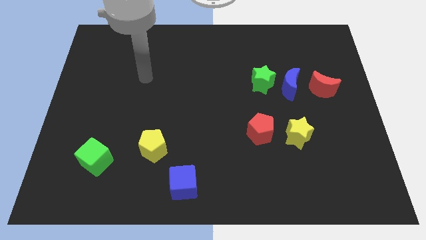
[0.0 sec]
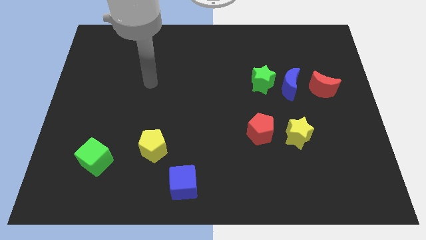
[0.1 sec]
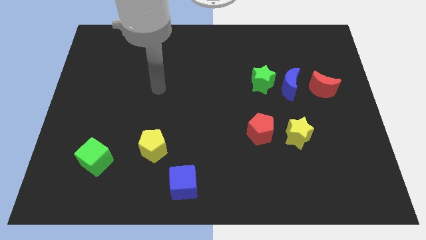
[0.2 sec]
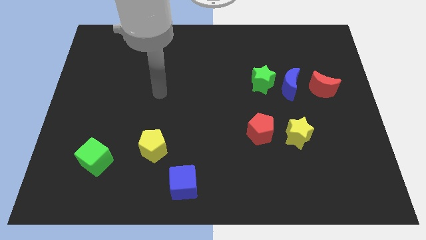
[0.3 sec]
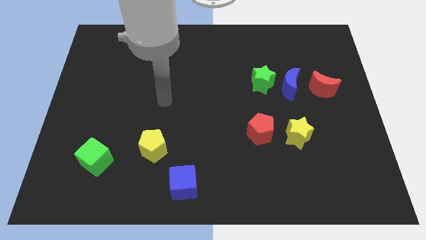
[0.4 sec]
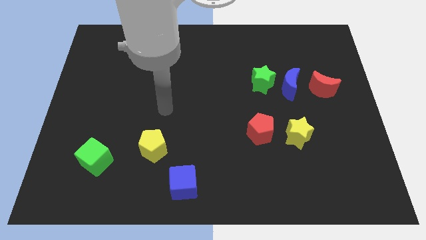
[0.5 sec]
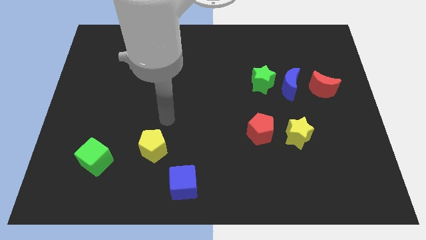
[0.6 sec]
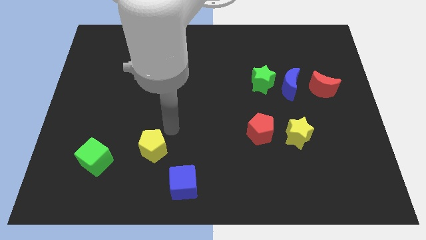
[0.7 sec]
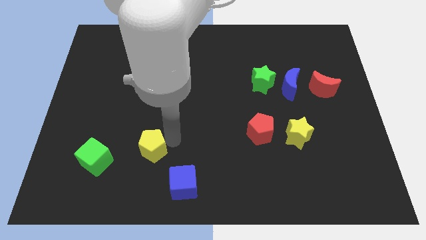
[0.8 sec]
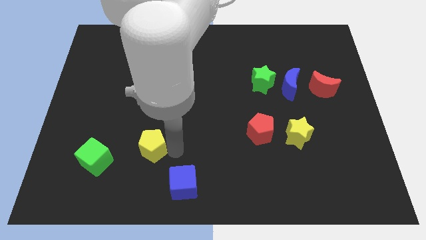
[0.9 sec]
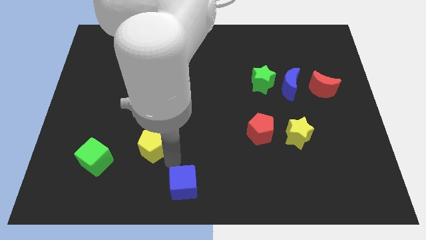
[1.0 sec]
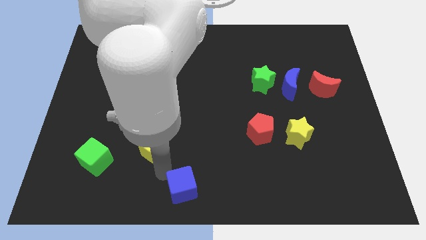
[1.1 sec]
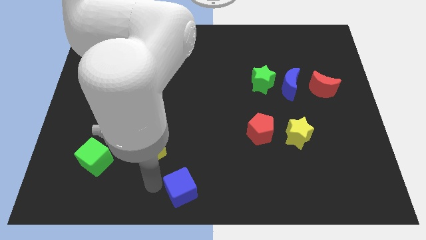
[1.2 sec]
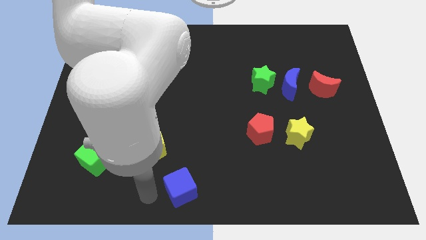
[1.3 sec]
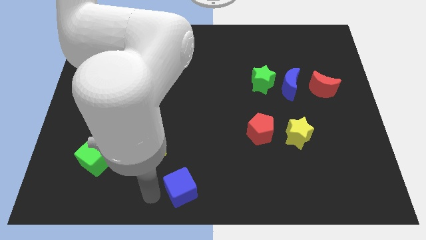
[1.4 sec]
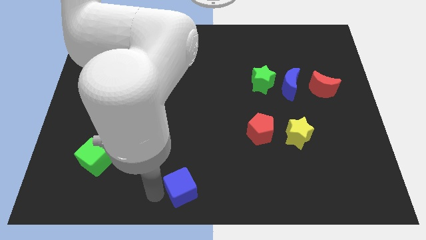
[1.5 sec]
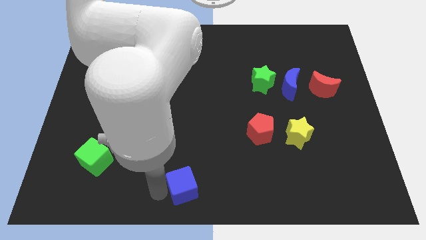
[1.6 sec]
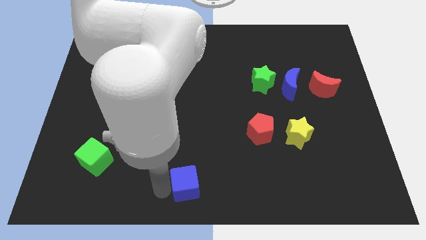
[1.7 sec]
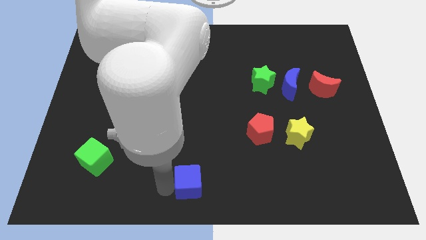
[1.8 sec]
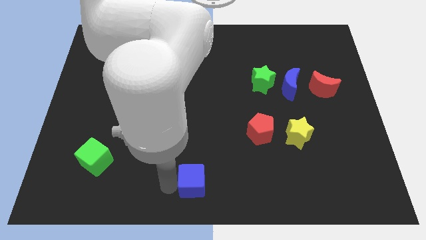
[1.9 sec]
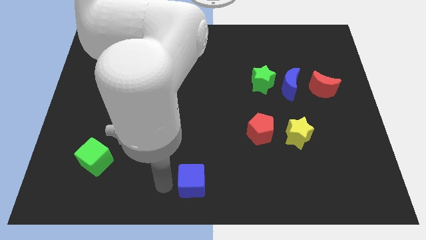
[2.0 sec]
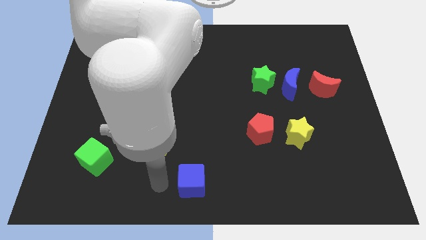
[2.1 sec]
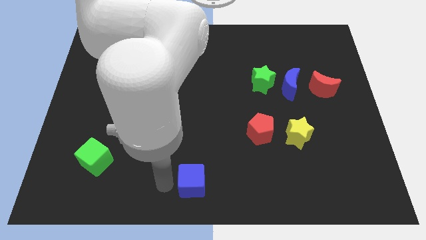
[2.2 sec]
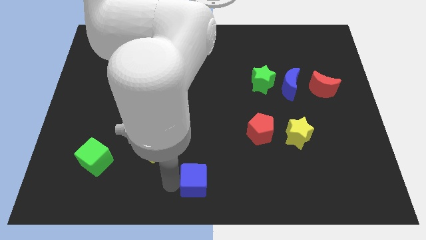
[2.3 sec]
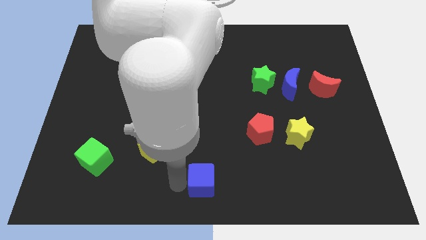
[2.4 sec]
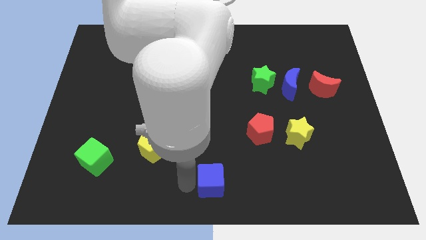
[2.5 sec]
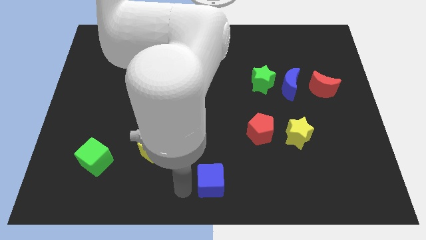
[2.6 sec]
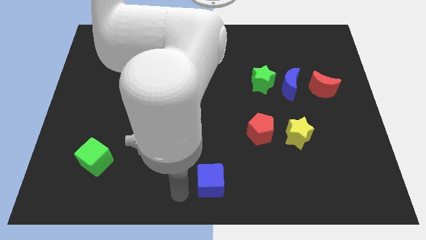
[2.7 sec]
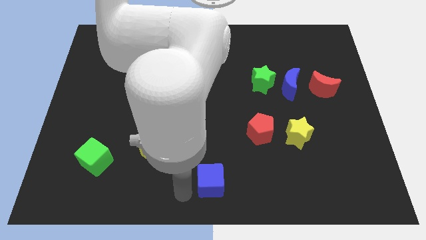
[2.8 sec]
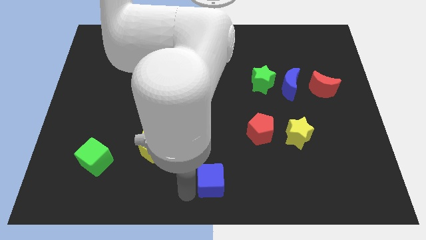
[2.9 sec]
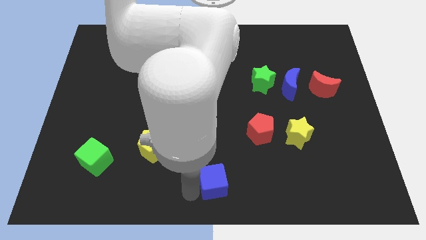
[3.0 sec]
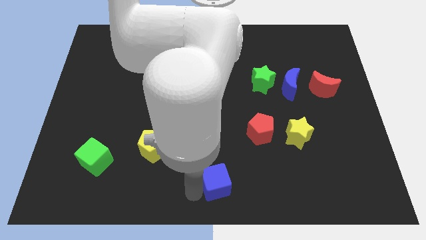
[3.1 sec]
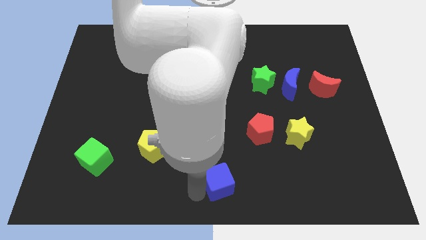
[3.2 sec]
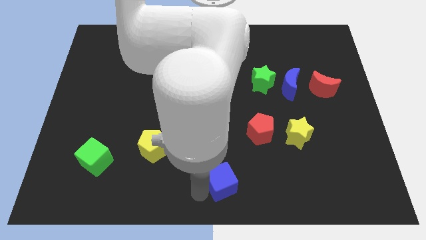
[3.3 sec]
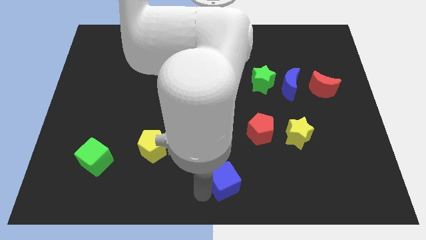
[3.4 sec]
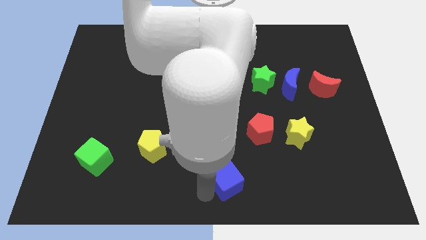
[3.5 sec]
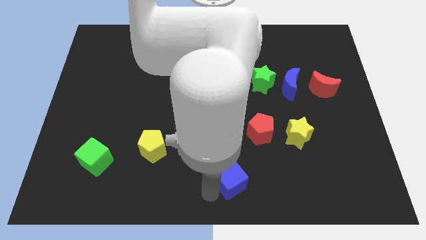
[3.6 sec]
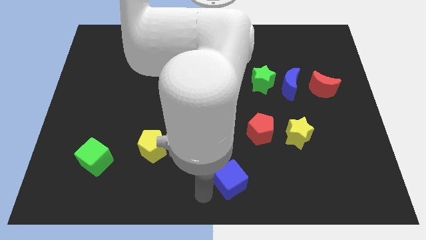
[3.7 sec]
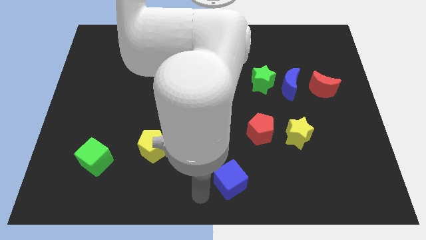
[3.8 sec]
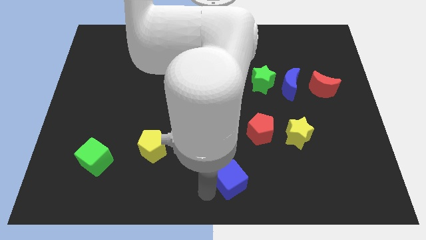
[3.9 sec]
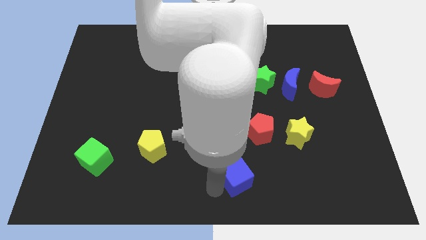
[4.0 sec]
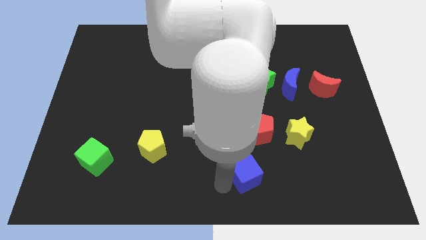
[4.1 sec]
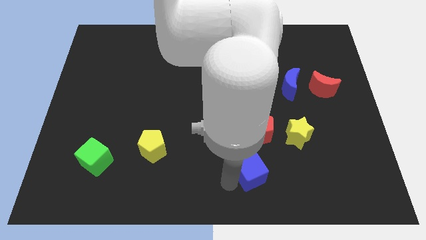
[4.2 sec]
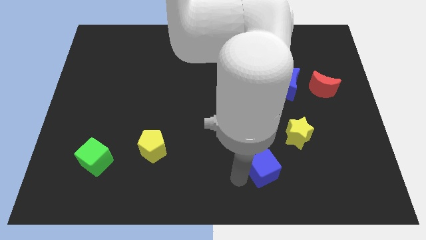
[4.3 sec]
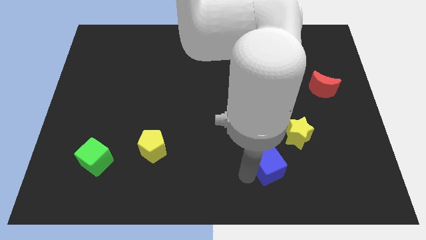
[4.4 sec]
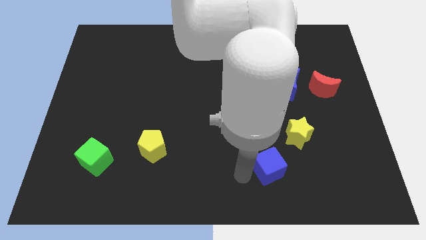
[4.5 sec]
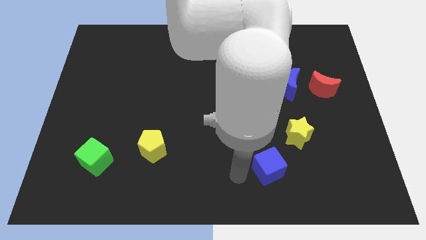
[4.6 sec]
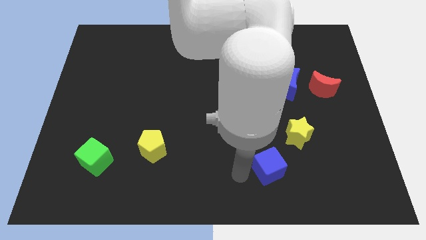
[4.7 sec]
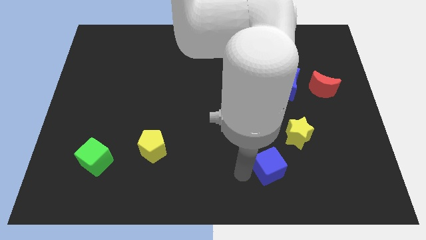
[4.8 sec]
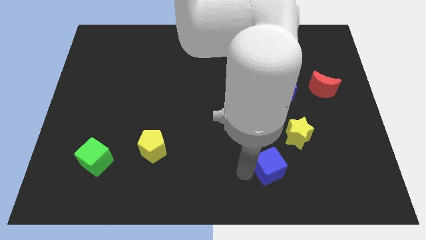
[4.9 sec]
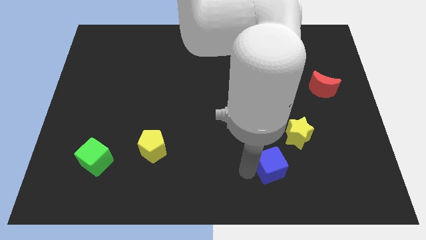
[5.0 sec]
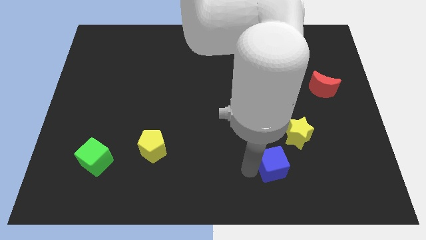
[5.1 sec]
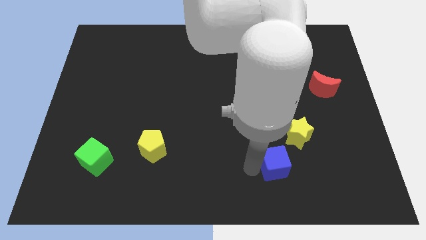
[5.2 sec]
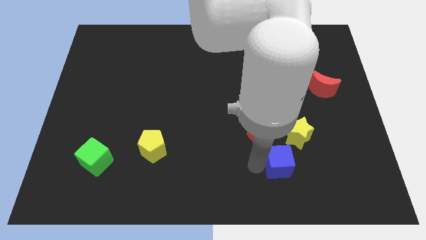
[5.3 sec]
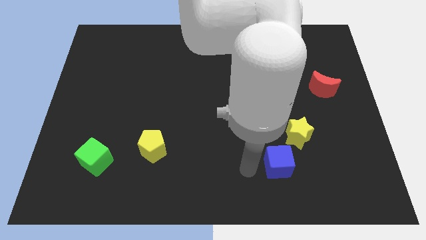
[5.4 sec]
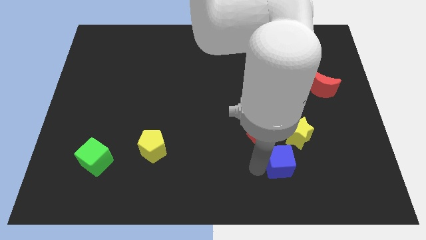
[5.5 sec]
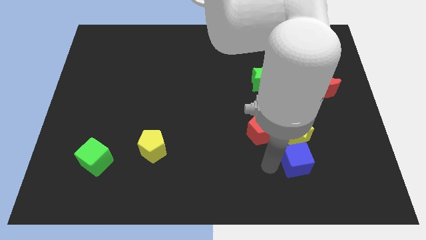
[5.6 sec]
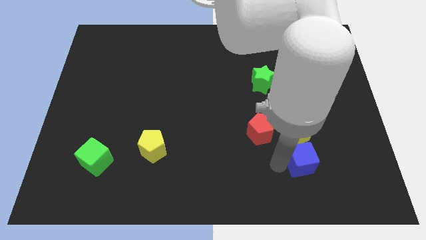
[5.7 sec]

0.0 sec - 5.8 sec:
put the blue cube to the bottom right of the yellow star

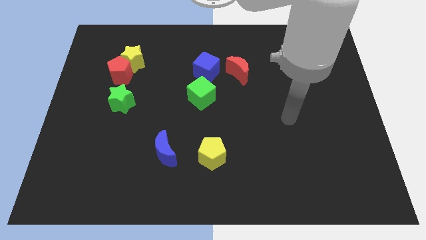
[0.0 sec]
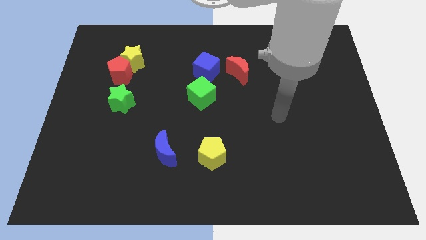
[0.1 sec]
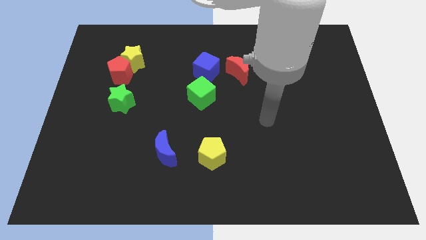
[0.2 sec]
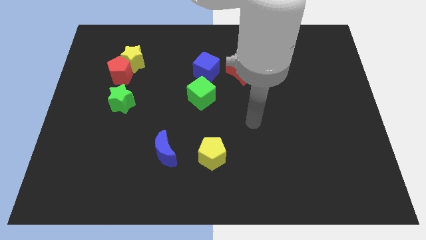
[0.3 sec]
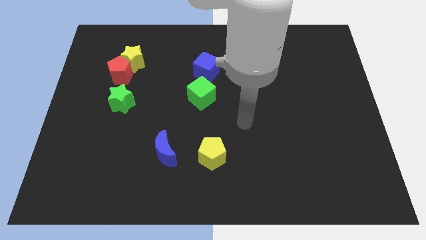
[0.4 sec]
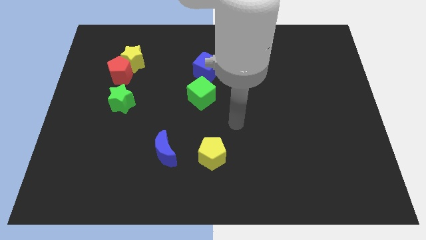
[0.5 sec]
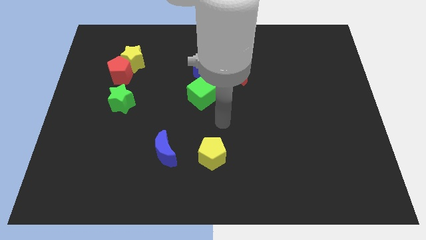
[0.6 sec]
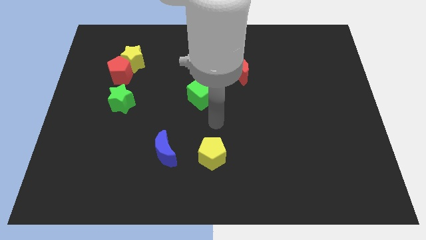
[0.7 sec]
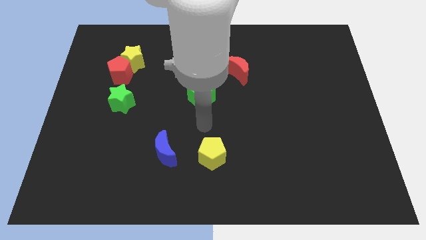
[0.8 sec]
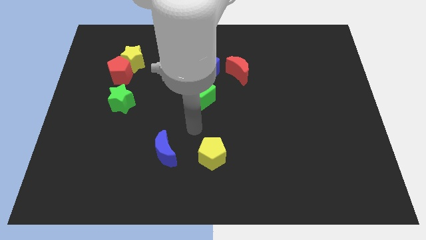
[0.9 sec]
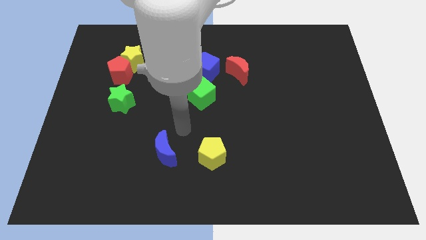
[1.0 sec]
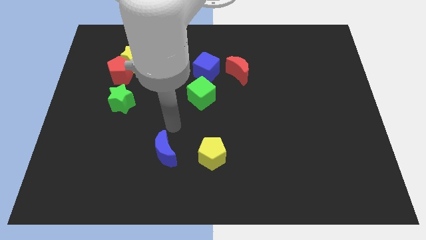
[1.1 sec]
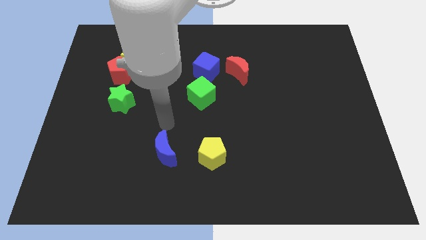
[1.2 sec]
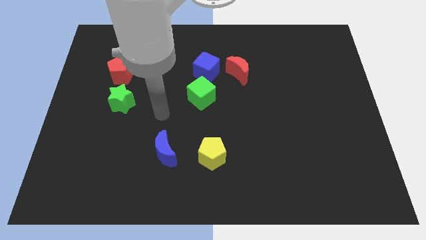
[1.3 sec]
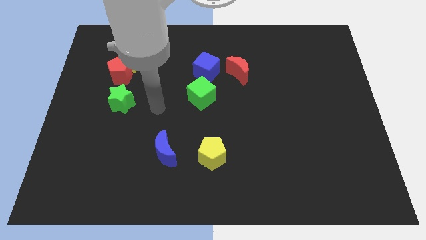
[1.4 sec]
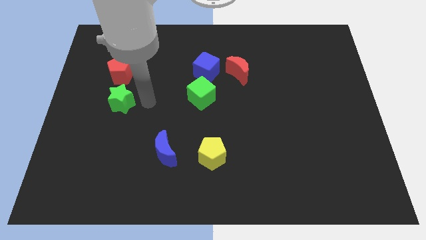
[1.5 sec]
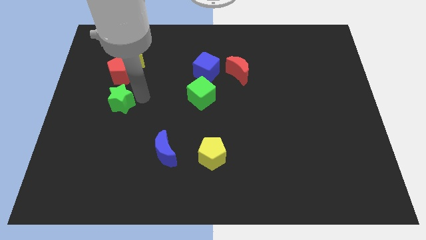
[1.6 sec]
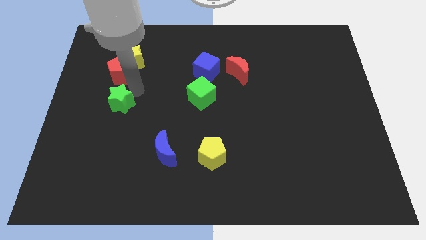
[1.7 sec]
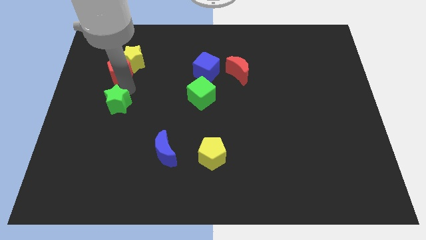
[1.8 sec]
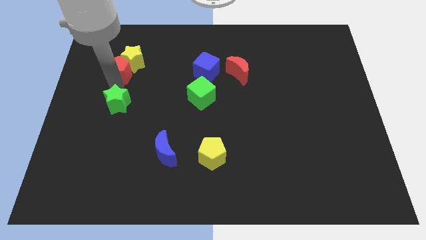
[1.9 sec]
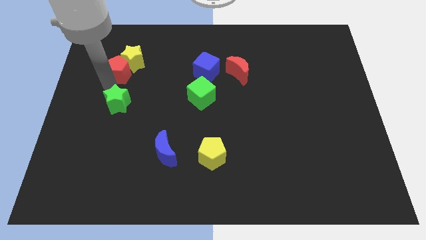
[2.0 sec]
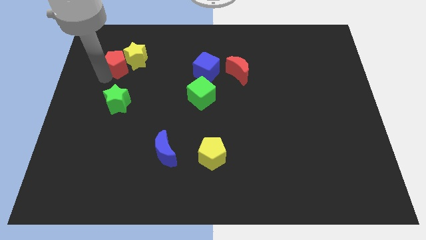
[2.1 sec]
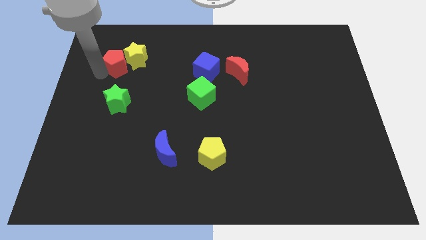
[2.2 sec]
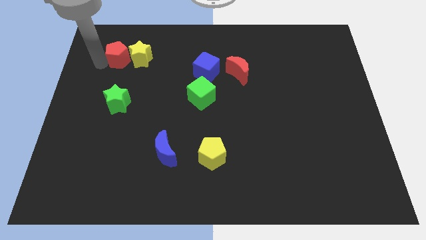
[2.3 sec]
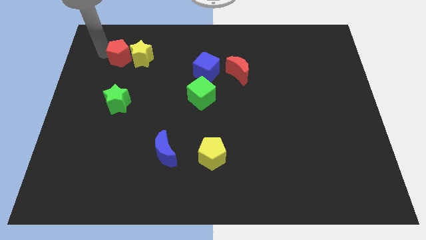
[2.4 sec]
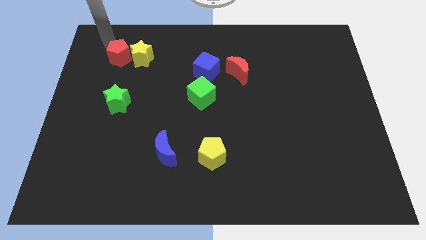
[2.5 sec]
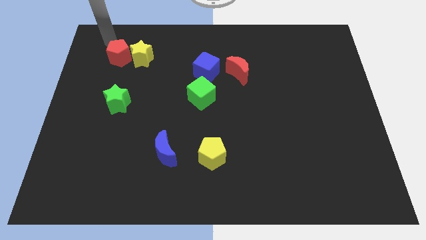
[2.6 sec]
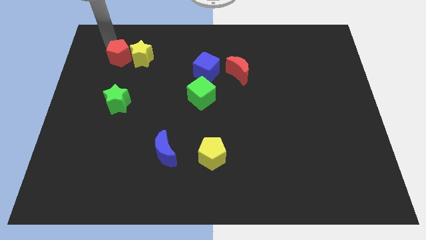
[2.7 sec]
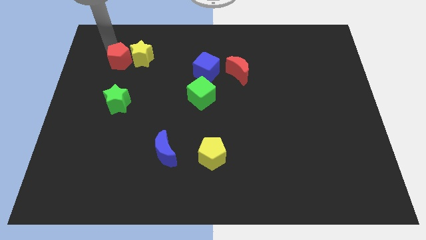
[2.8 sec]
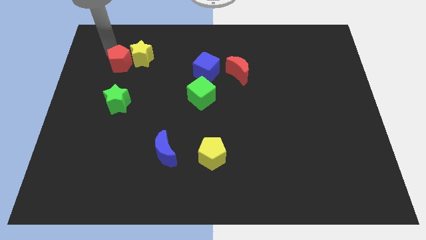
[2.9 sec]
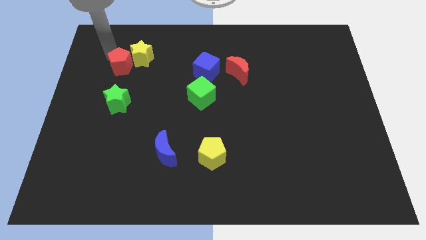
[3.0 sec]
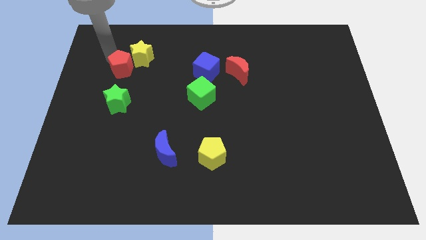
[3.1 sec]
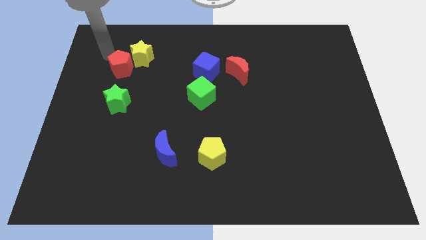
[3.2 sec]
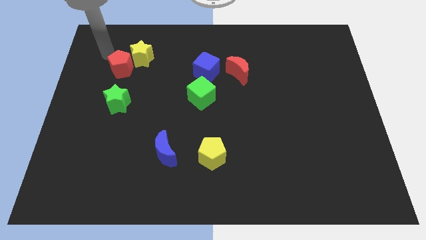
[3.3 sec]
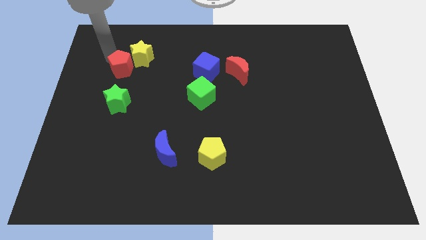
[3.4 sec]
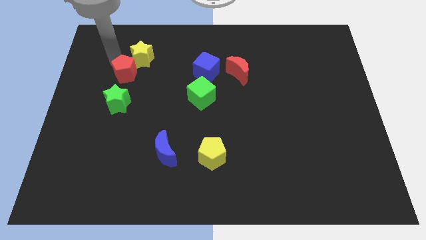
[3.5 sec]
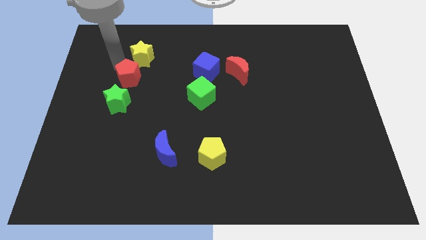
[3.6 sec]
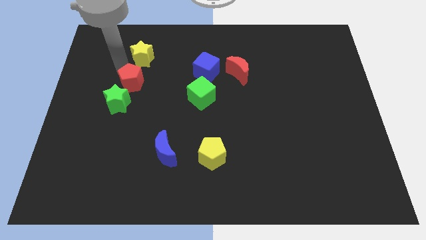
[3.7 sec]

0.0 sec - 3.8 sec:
push the red pentagon diagonally up and to the right of the green star
